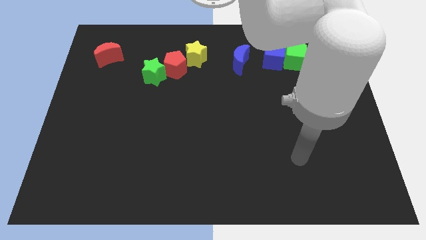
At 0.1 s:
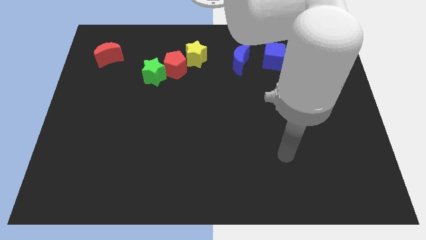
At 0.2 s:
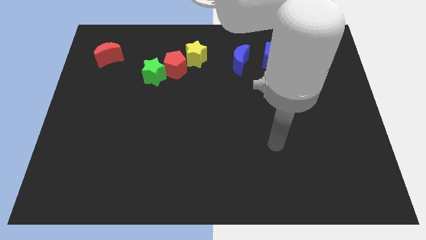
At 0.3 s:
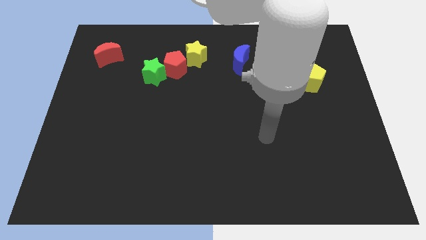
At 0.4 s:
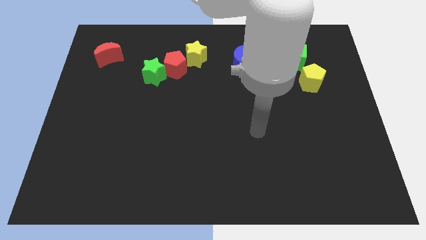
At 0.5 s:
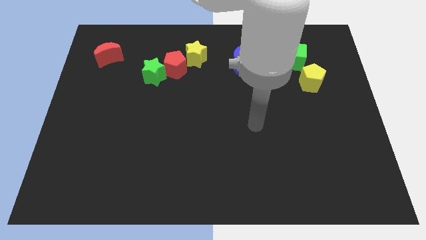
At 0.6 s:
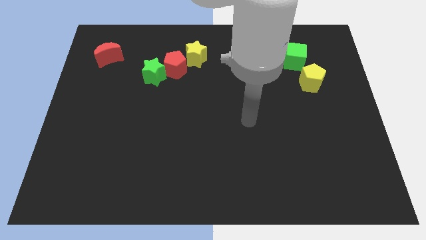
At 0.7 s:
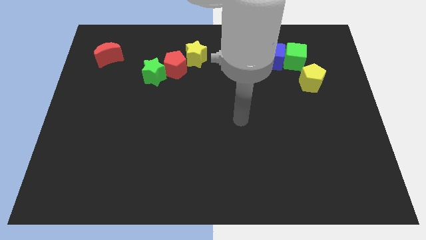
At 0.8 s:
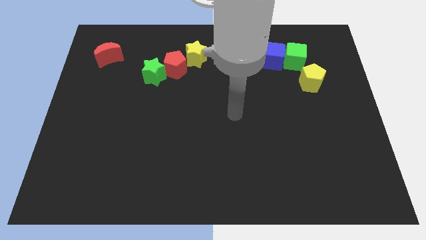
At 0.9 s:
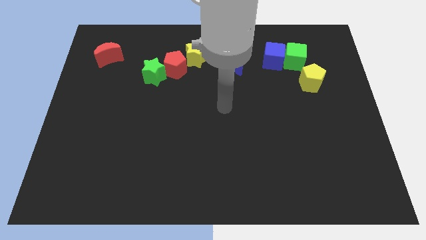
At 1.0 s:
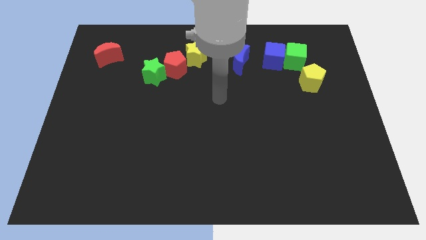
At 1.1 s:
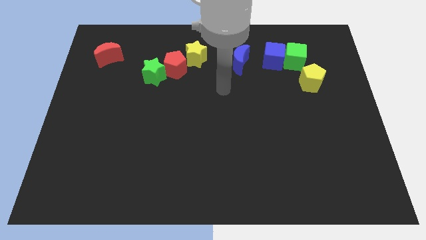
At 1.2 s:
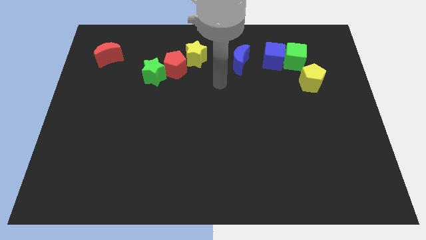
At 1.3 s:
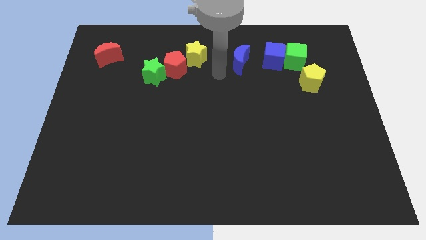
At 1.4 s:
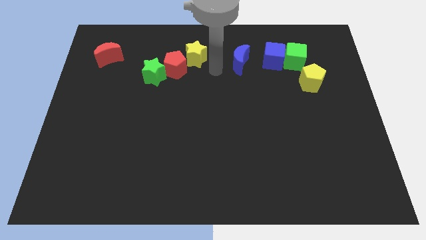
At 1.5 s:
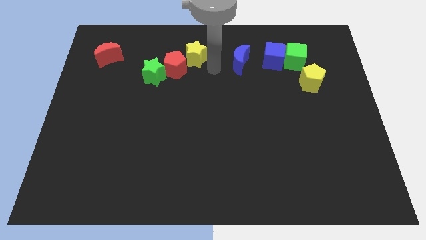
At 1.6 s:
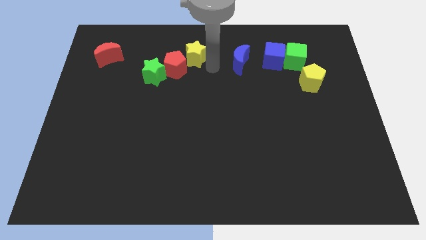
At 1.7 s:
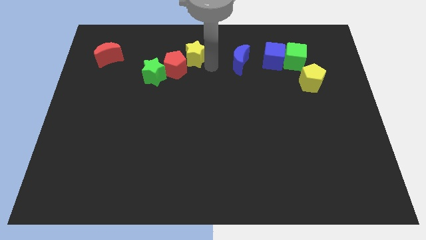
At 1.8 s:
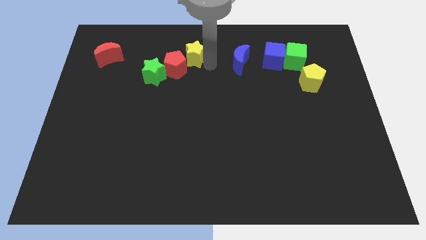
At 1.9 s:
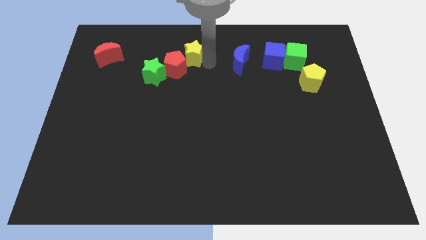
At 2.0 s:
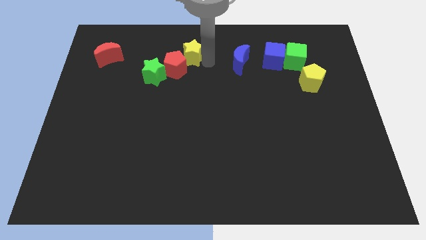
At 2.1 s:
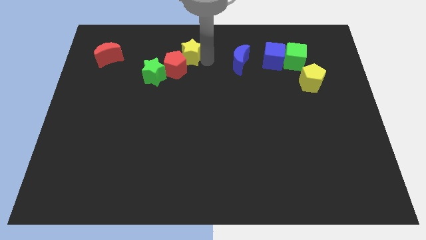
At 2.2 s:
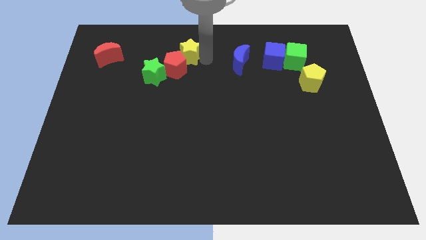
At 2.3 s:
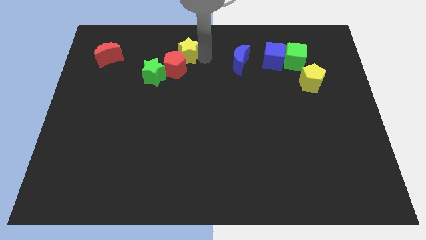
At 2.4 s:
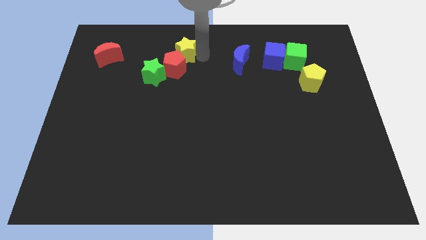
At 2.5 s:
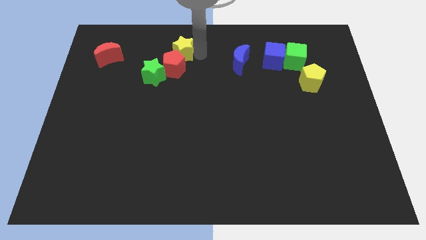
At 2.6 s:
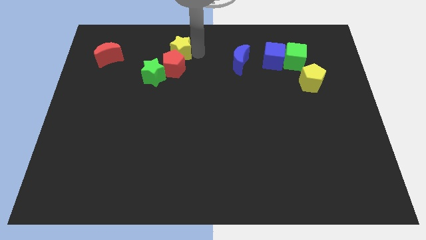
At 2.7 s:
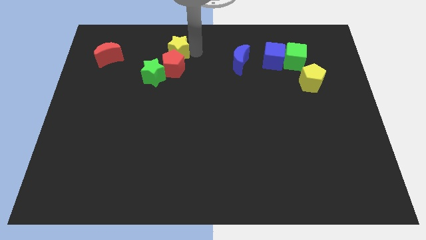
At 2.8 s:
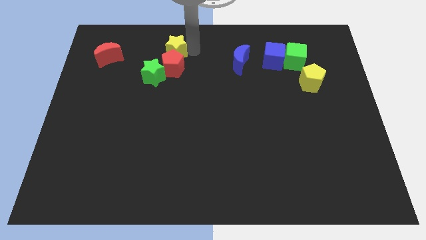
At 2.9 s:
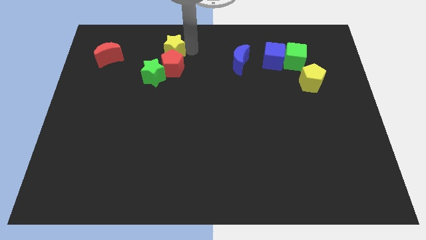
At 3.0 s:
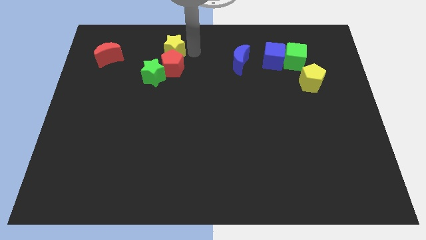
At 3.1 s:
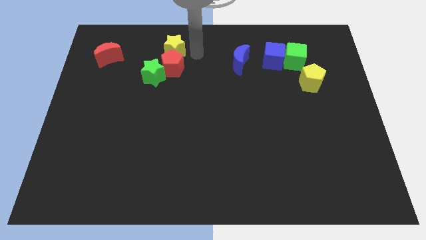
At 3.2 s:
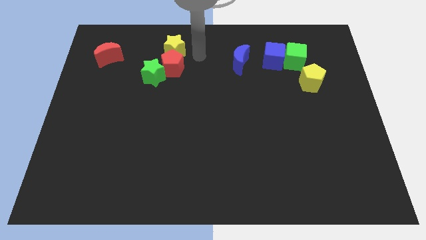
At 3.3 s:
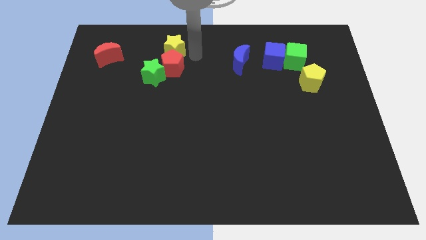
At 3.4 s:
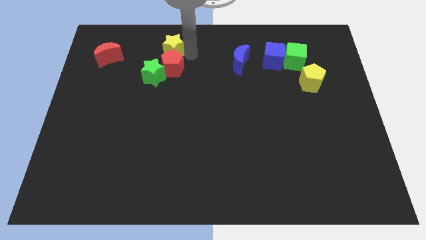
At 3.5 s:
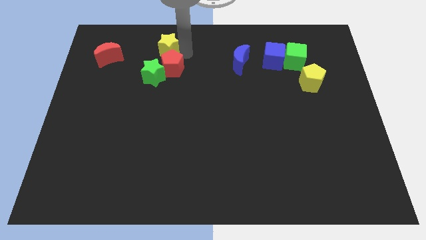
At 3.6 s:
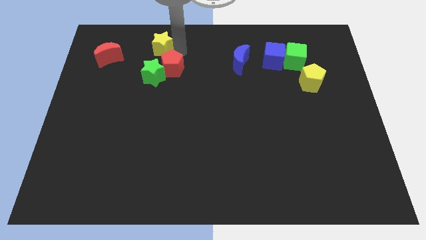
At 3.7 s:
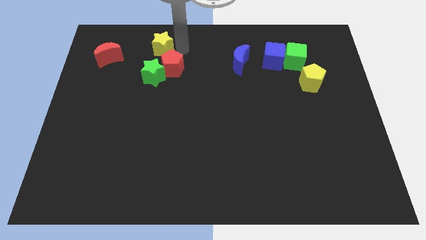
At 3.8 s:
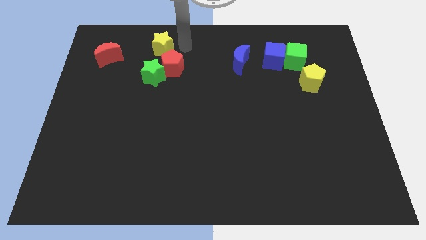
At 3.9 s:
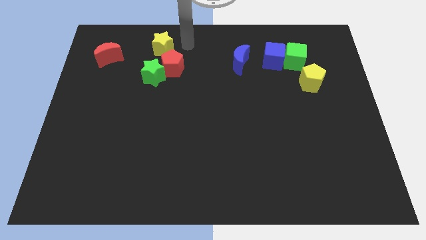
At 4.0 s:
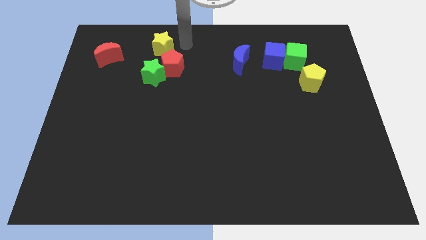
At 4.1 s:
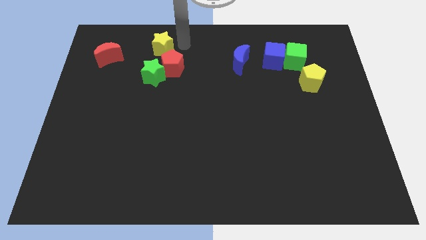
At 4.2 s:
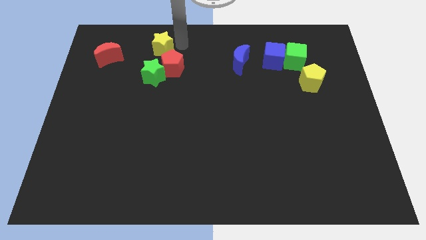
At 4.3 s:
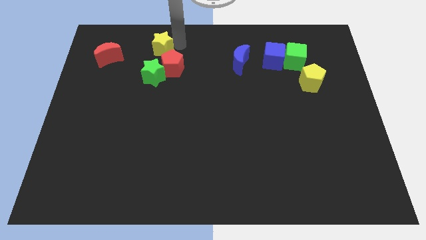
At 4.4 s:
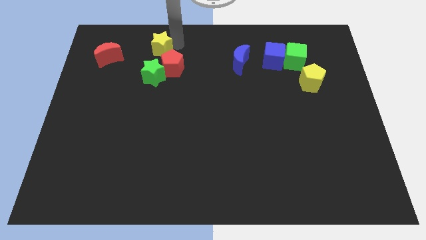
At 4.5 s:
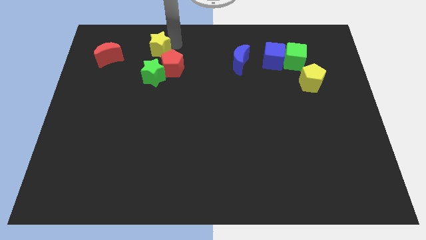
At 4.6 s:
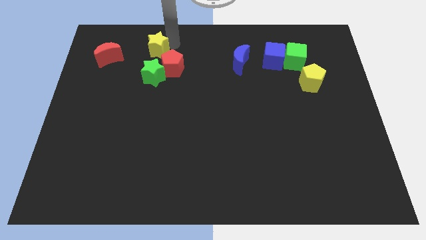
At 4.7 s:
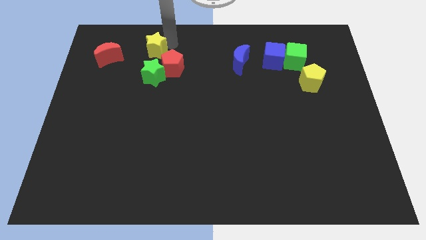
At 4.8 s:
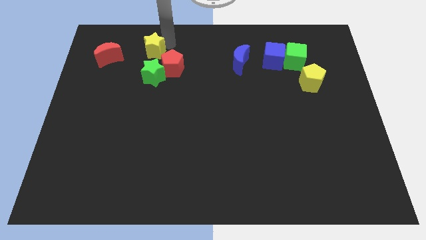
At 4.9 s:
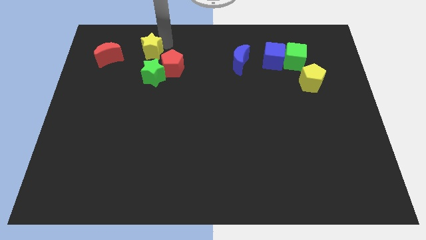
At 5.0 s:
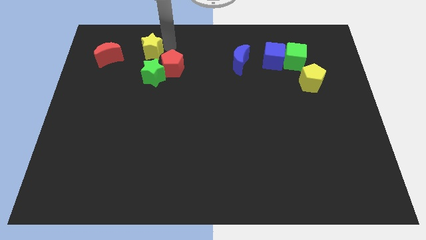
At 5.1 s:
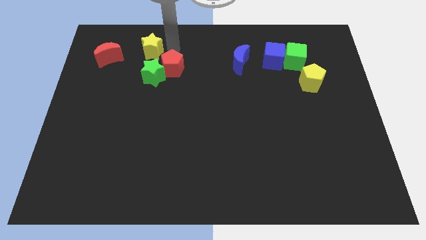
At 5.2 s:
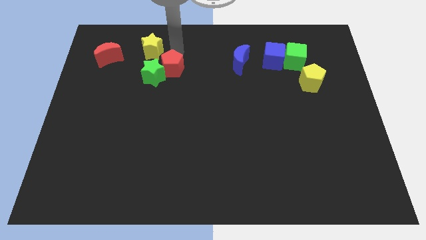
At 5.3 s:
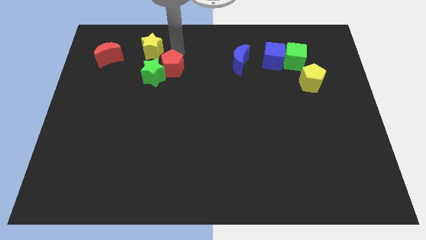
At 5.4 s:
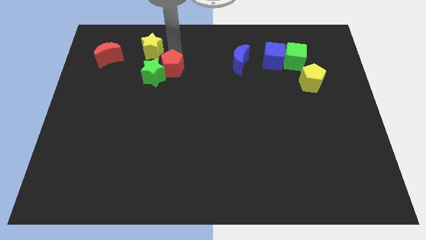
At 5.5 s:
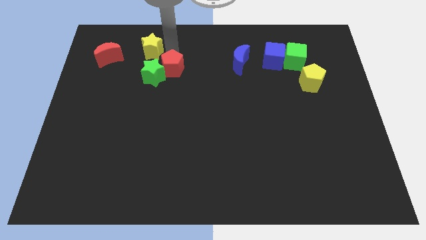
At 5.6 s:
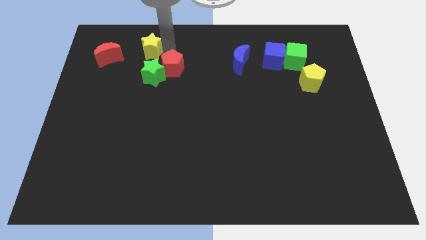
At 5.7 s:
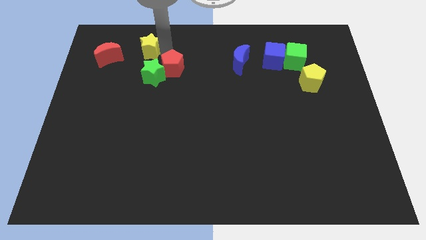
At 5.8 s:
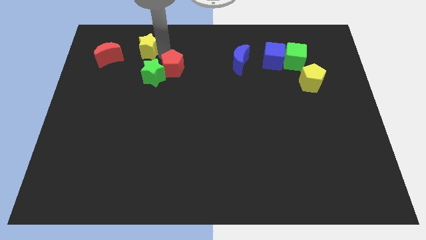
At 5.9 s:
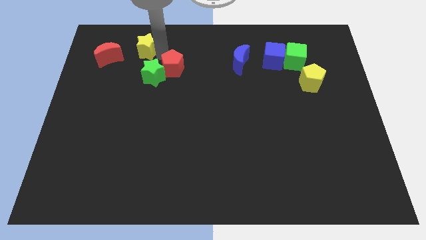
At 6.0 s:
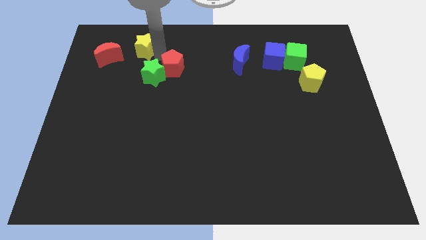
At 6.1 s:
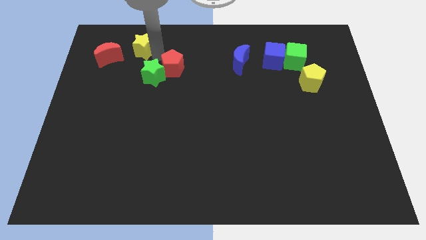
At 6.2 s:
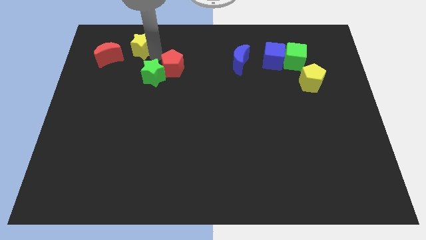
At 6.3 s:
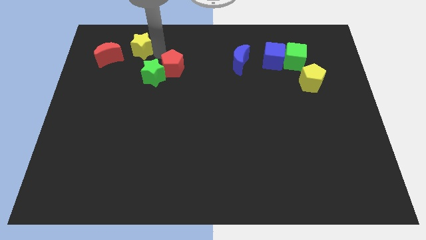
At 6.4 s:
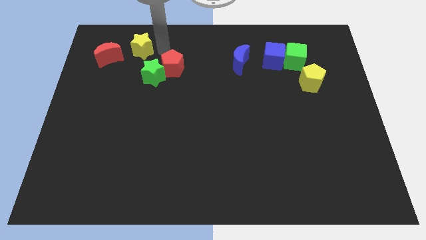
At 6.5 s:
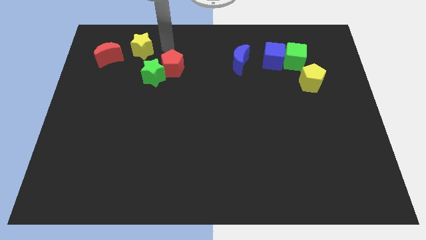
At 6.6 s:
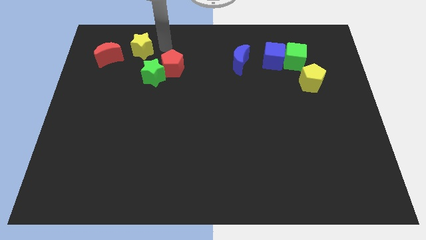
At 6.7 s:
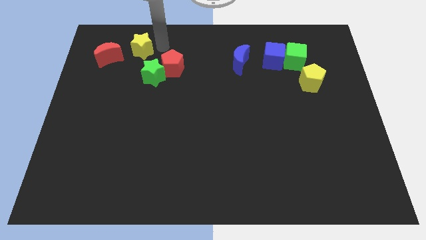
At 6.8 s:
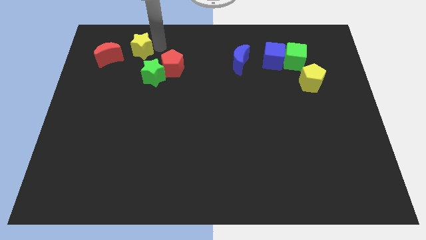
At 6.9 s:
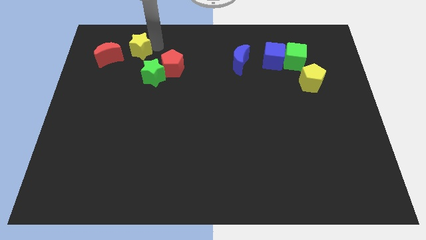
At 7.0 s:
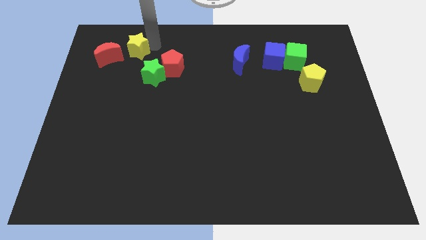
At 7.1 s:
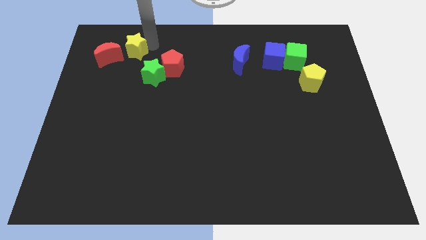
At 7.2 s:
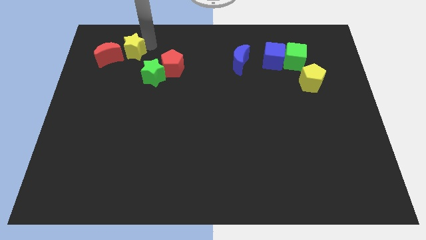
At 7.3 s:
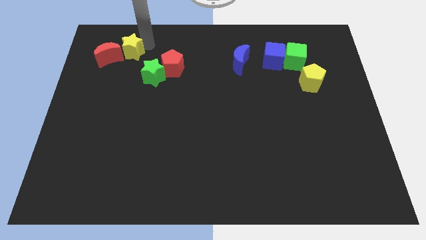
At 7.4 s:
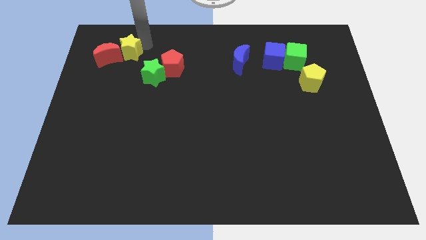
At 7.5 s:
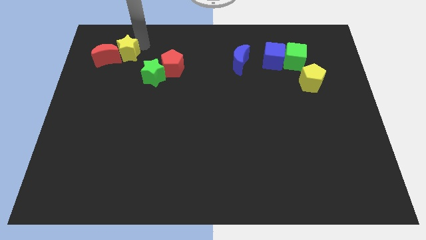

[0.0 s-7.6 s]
slide the yellow star next to the red moon

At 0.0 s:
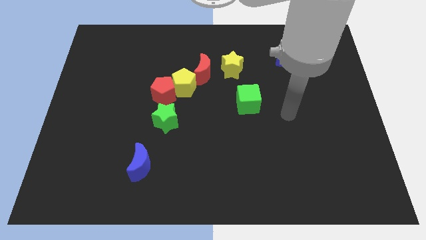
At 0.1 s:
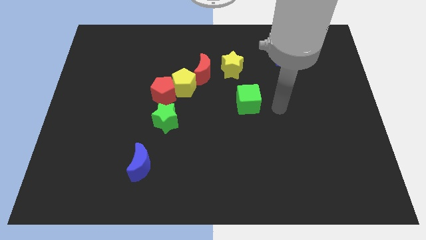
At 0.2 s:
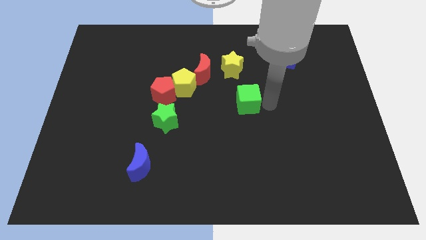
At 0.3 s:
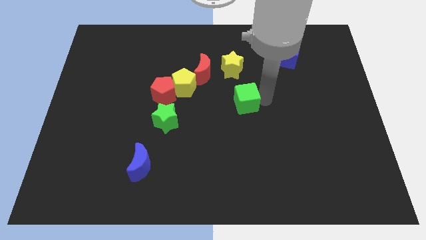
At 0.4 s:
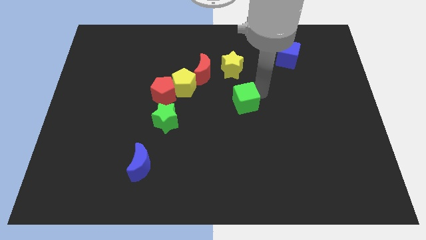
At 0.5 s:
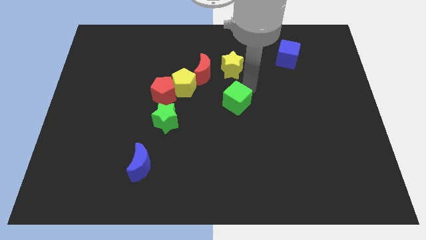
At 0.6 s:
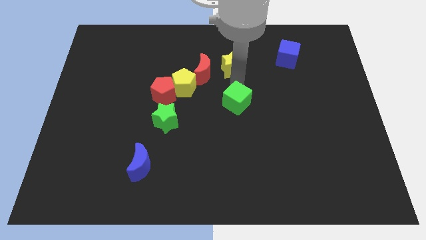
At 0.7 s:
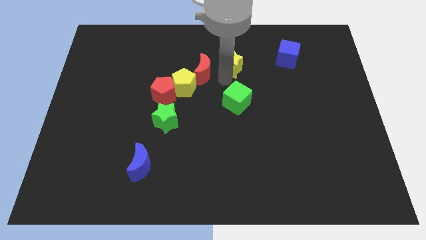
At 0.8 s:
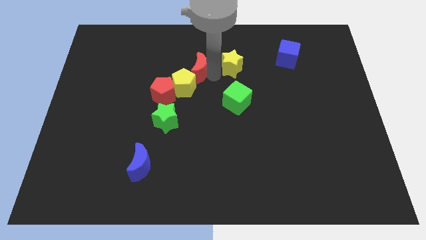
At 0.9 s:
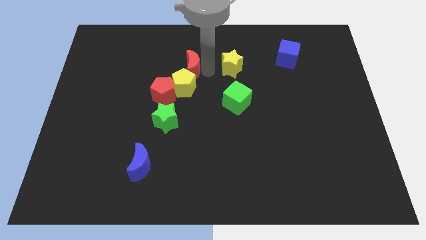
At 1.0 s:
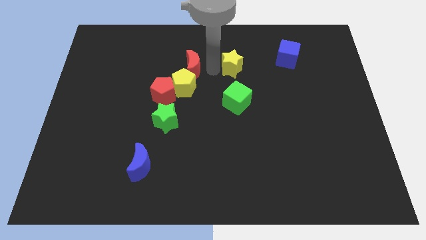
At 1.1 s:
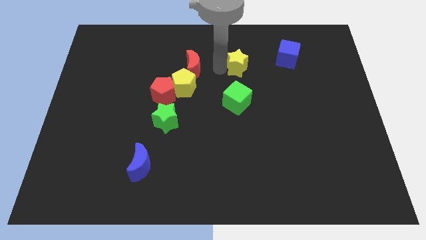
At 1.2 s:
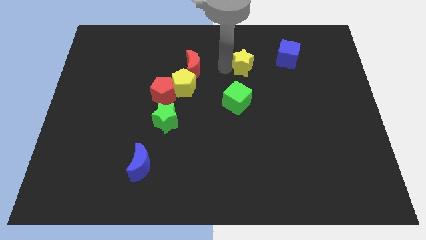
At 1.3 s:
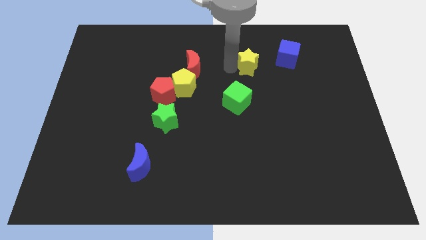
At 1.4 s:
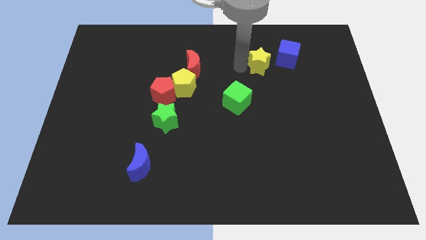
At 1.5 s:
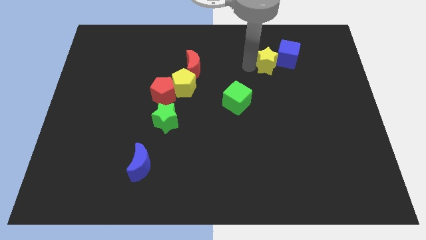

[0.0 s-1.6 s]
move the yellow star next to the blue cube
